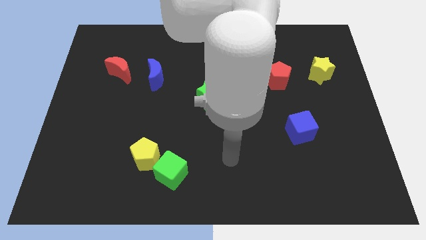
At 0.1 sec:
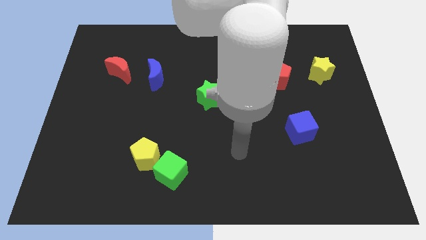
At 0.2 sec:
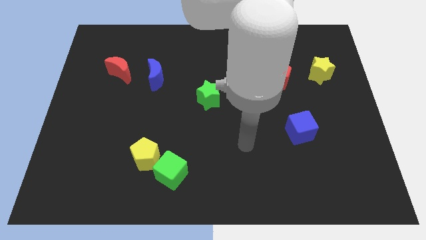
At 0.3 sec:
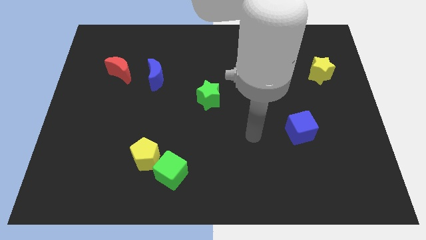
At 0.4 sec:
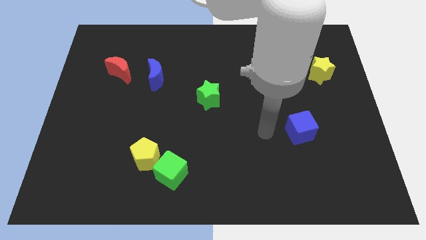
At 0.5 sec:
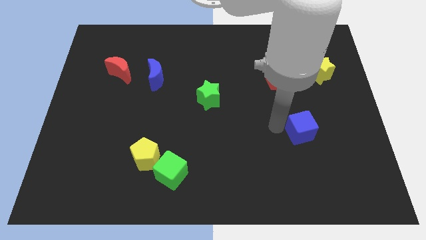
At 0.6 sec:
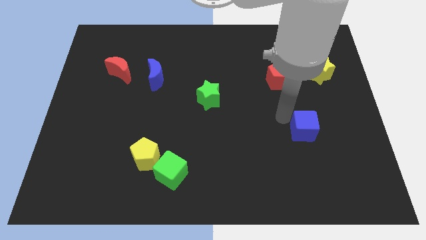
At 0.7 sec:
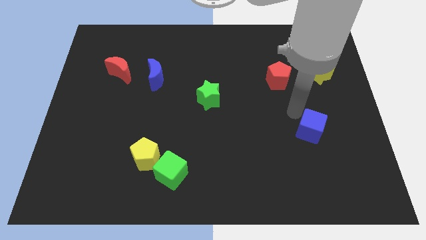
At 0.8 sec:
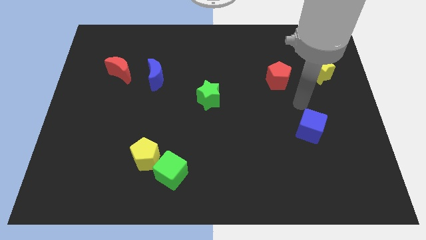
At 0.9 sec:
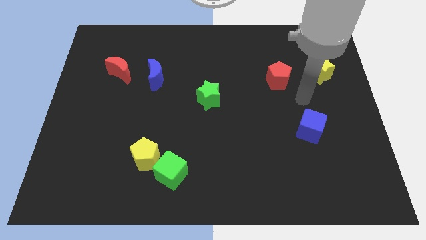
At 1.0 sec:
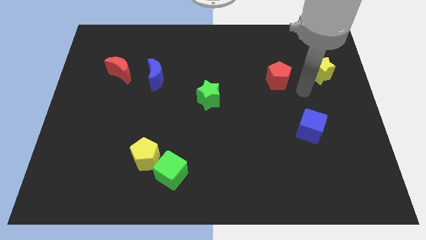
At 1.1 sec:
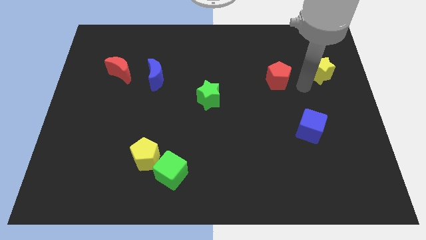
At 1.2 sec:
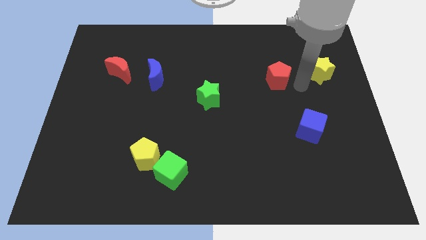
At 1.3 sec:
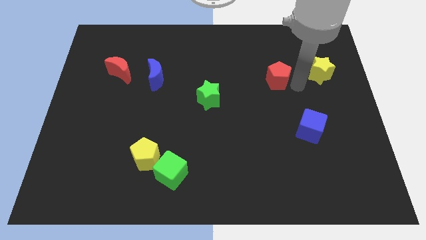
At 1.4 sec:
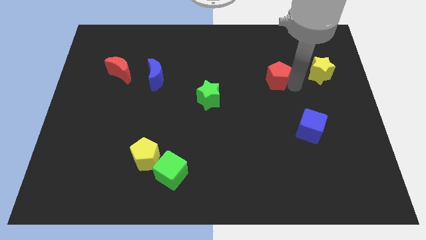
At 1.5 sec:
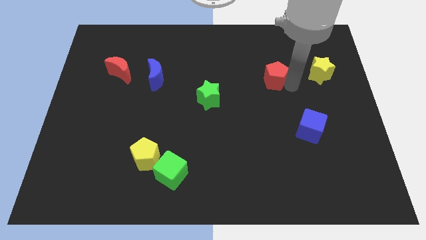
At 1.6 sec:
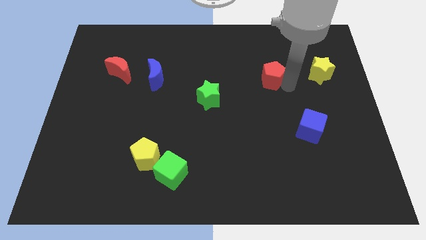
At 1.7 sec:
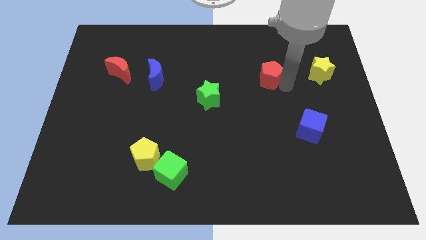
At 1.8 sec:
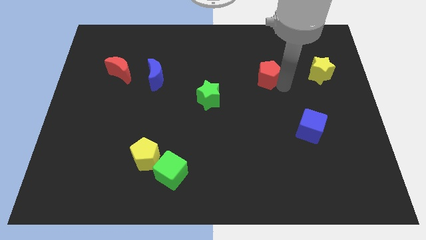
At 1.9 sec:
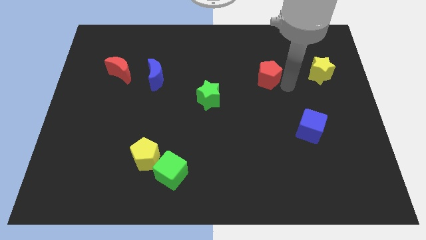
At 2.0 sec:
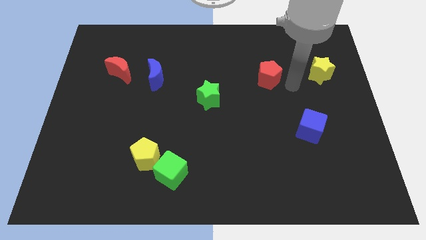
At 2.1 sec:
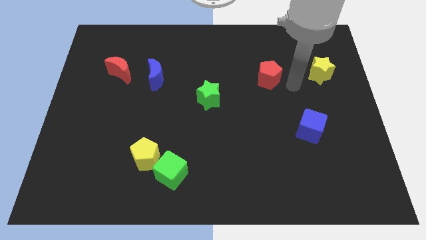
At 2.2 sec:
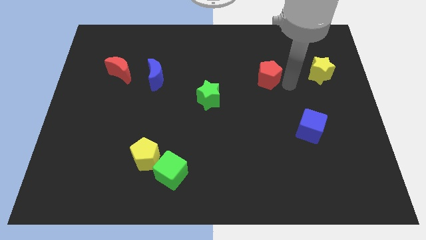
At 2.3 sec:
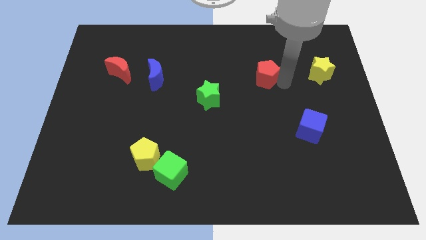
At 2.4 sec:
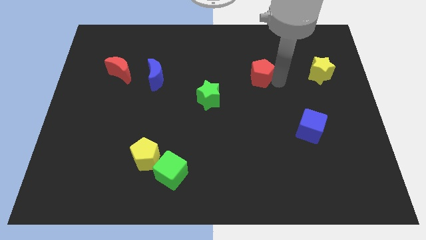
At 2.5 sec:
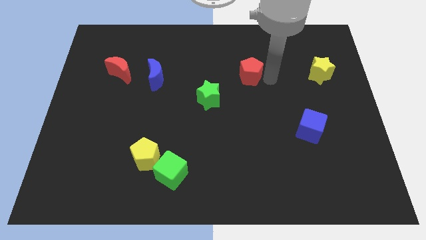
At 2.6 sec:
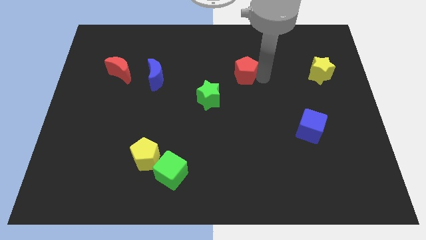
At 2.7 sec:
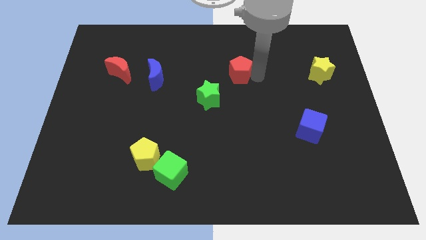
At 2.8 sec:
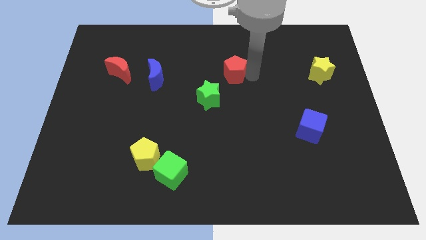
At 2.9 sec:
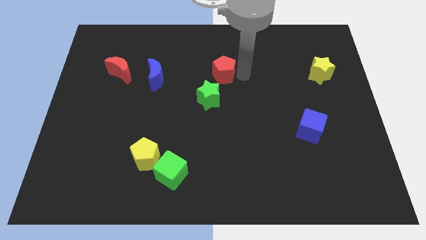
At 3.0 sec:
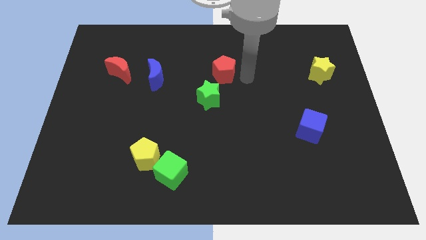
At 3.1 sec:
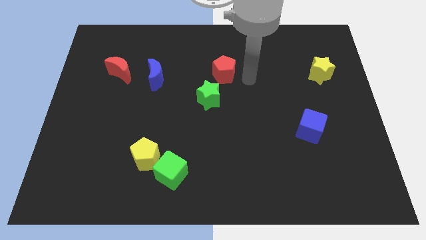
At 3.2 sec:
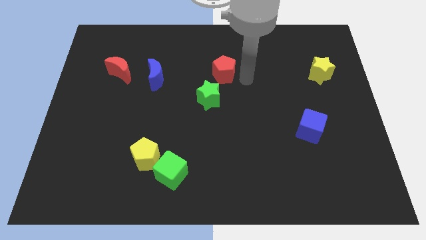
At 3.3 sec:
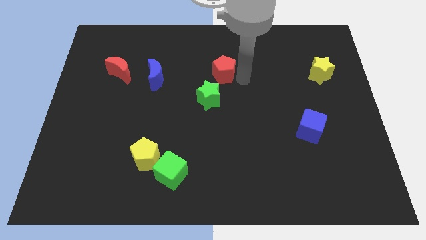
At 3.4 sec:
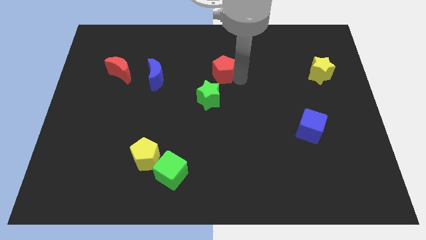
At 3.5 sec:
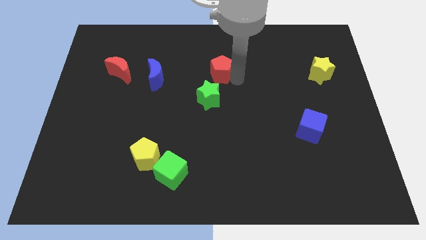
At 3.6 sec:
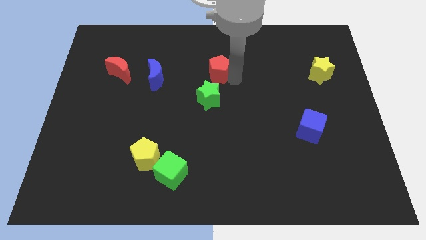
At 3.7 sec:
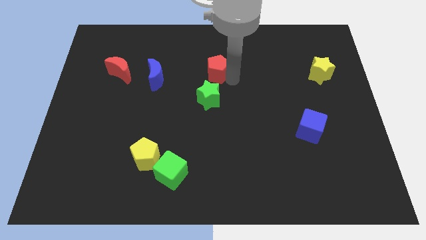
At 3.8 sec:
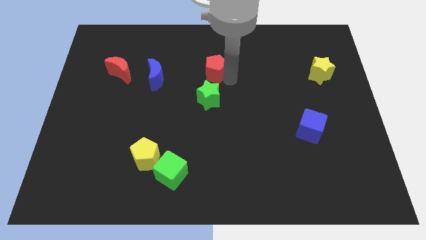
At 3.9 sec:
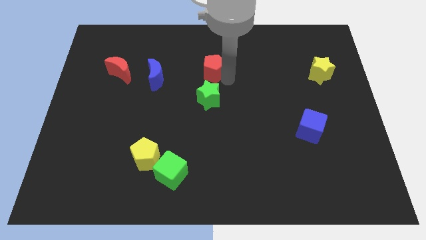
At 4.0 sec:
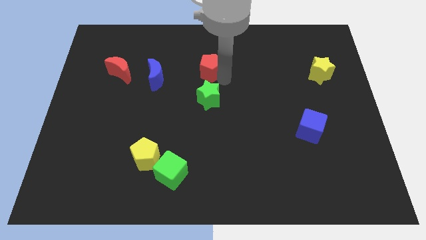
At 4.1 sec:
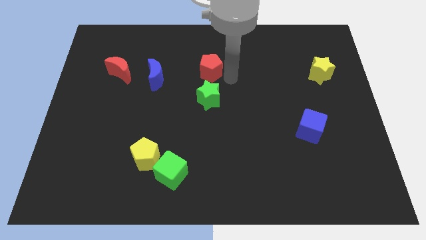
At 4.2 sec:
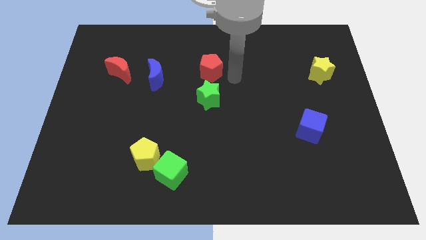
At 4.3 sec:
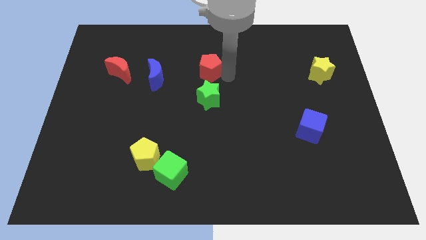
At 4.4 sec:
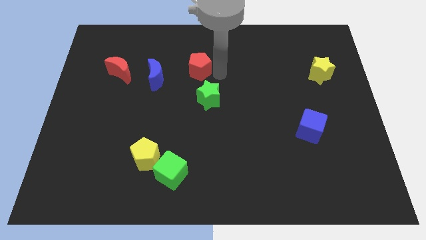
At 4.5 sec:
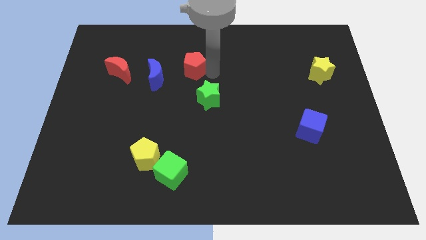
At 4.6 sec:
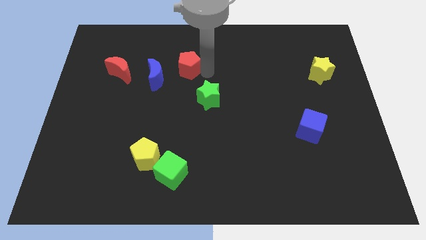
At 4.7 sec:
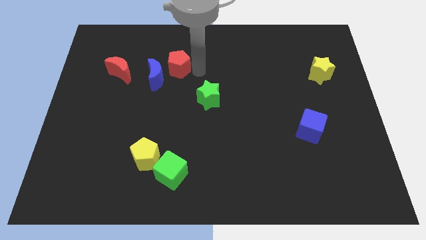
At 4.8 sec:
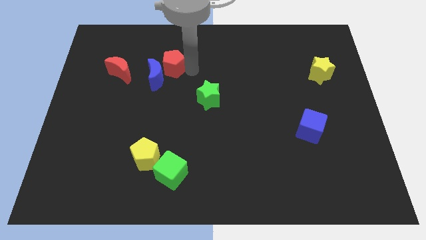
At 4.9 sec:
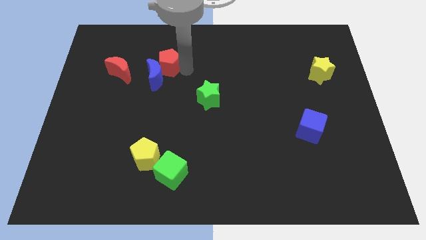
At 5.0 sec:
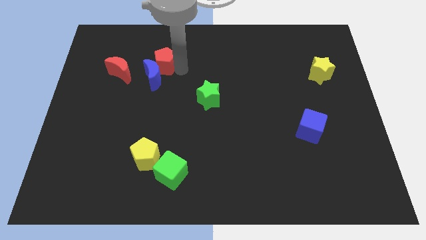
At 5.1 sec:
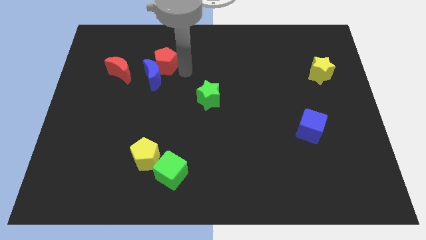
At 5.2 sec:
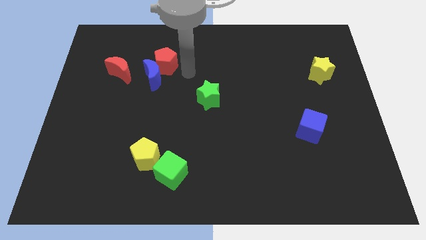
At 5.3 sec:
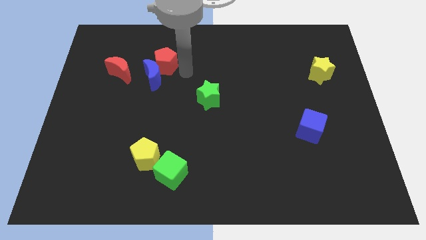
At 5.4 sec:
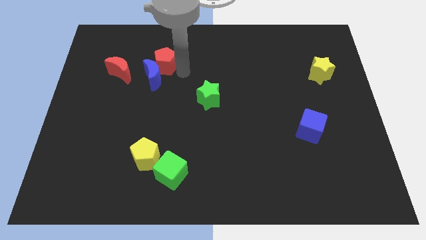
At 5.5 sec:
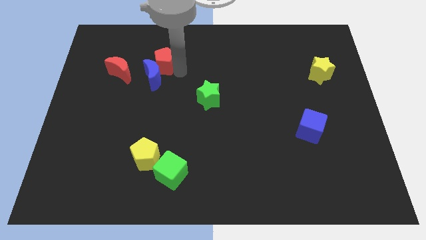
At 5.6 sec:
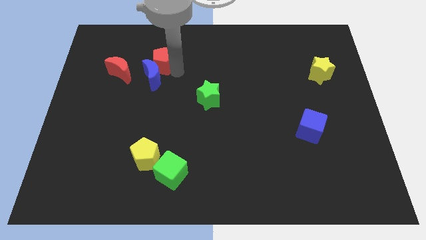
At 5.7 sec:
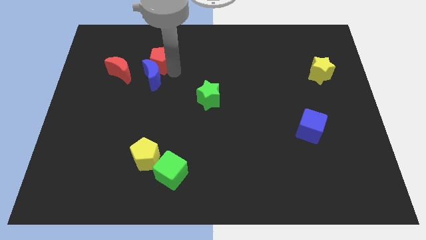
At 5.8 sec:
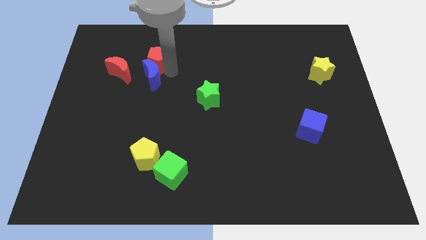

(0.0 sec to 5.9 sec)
put the red pentagon to the top right side of the red moon

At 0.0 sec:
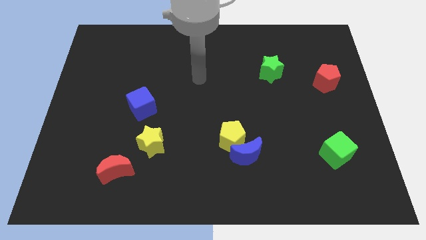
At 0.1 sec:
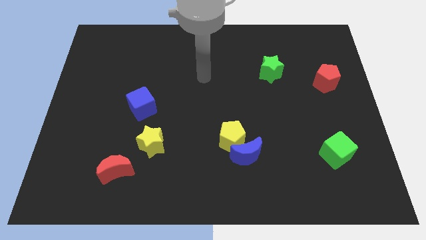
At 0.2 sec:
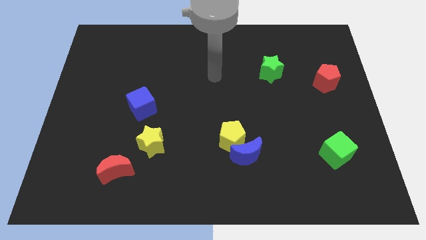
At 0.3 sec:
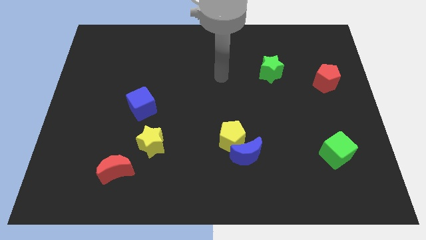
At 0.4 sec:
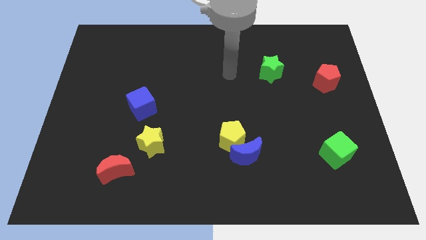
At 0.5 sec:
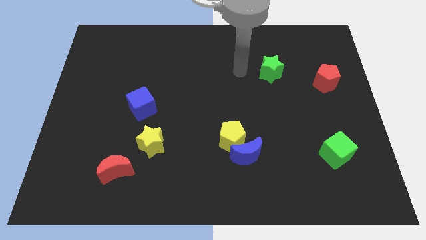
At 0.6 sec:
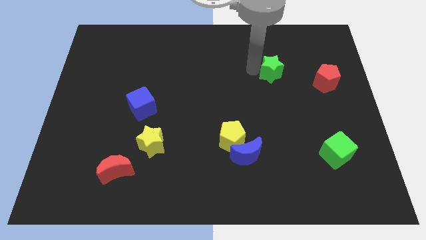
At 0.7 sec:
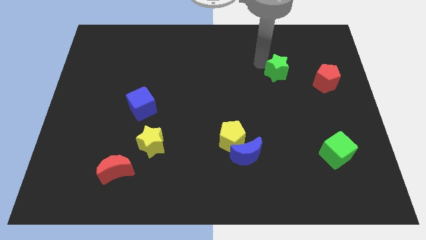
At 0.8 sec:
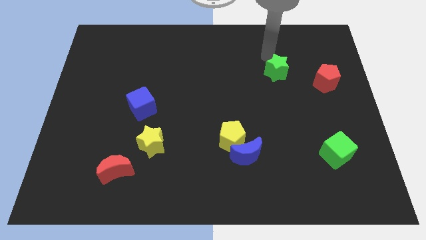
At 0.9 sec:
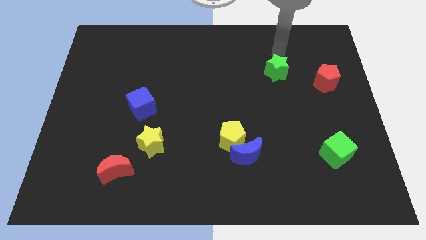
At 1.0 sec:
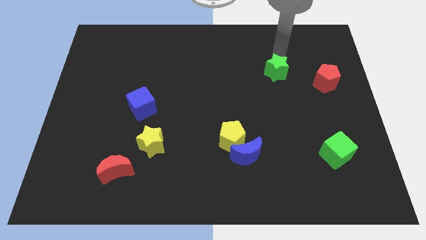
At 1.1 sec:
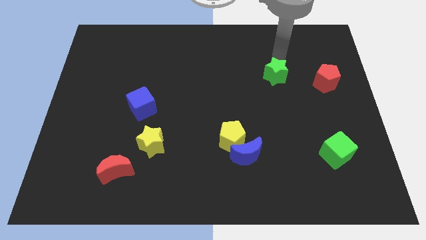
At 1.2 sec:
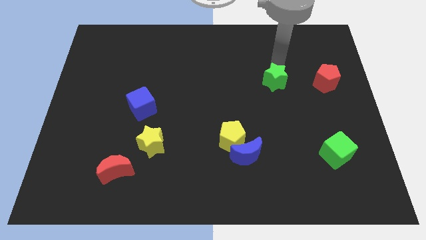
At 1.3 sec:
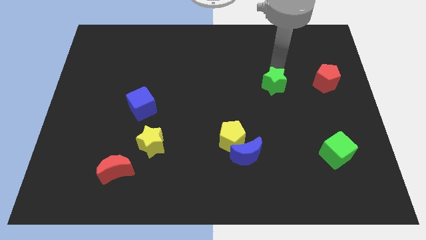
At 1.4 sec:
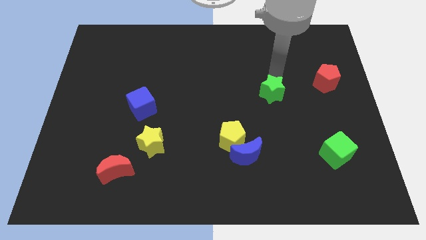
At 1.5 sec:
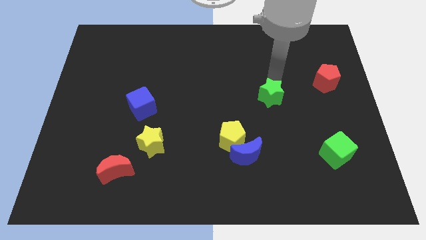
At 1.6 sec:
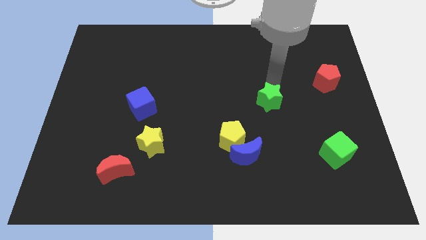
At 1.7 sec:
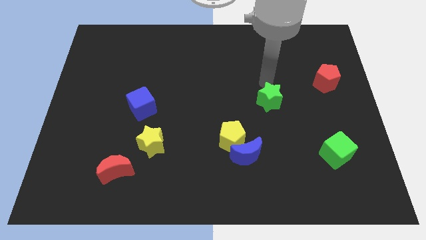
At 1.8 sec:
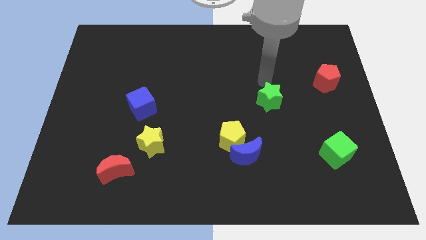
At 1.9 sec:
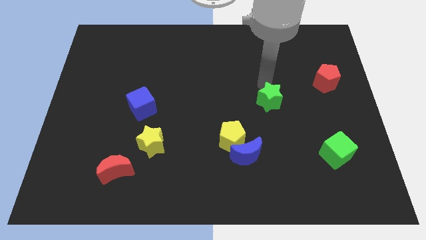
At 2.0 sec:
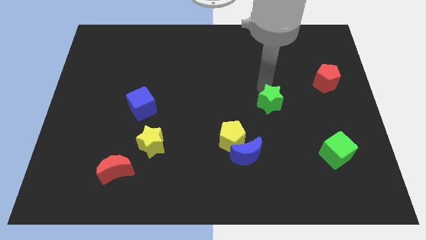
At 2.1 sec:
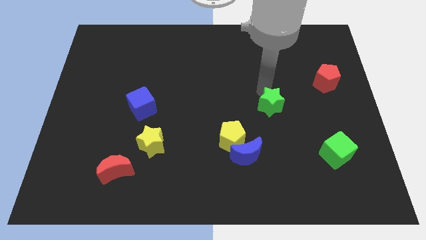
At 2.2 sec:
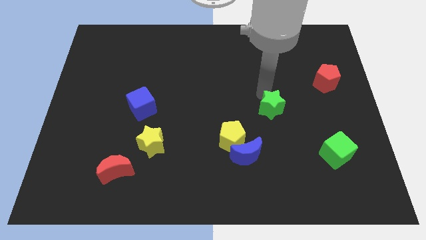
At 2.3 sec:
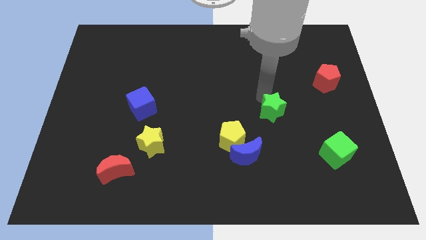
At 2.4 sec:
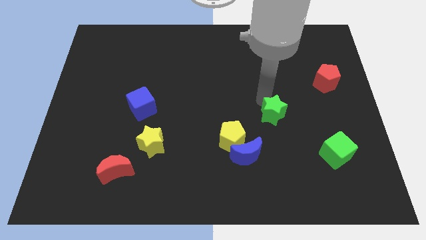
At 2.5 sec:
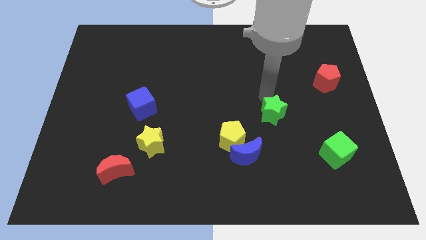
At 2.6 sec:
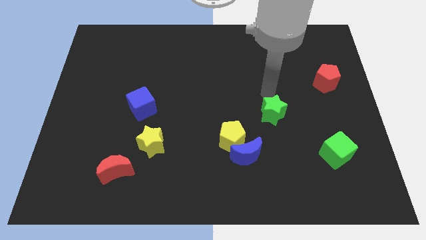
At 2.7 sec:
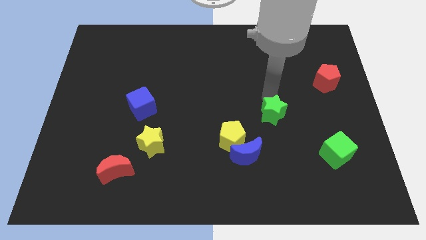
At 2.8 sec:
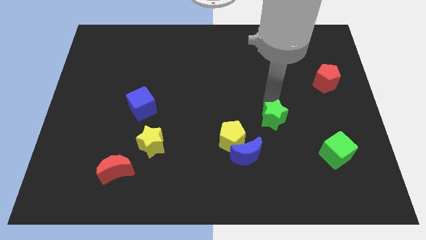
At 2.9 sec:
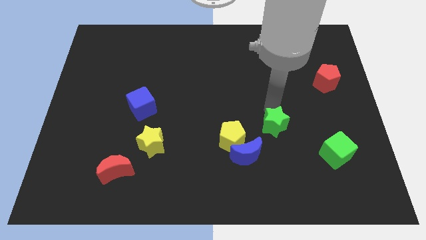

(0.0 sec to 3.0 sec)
push the green star right of the yellow pentagon
